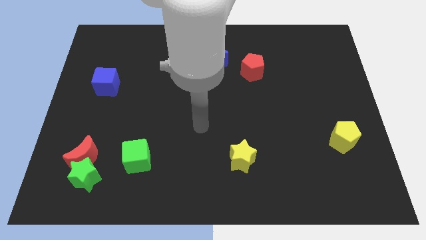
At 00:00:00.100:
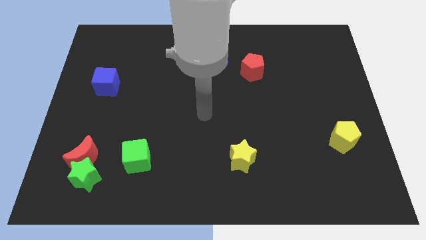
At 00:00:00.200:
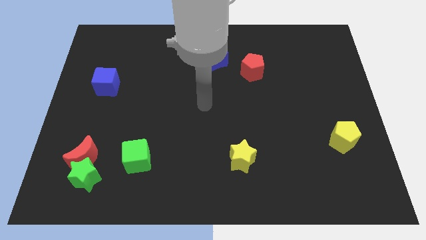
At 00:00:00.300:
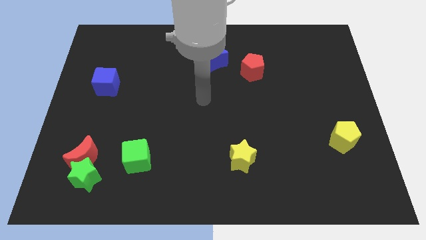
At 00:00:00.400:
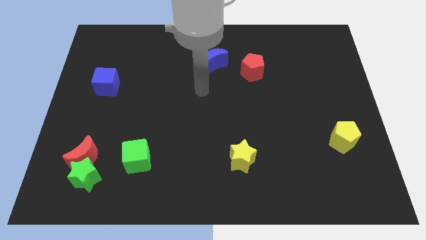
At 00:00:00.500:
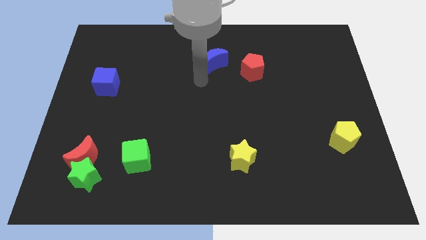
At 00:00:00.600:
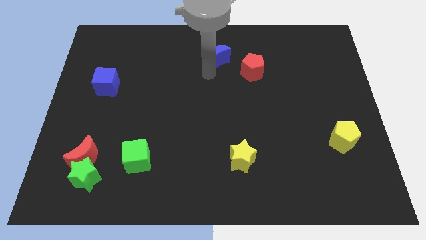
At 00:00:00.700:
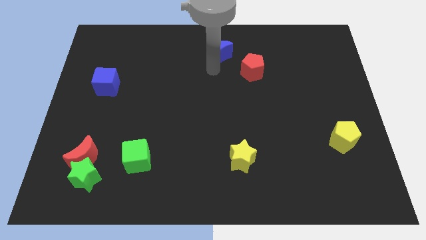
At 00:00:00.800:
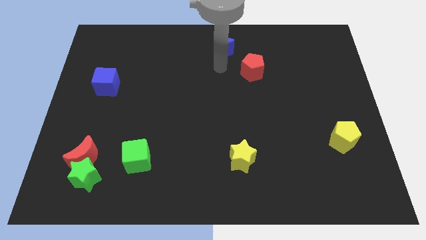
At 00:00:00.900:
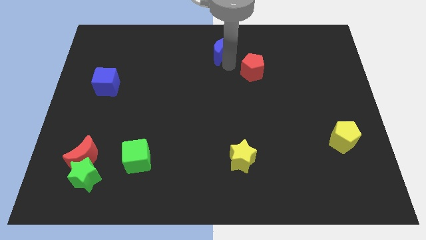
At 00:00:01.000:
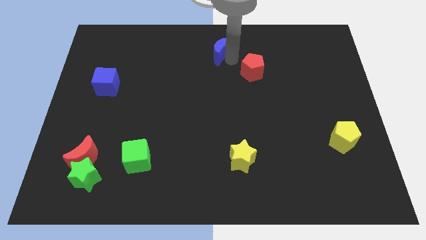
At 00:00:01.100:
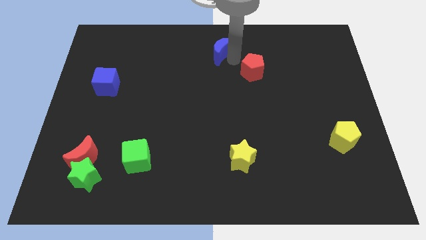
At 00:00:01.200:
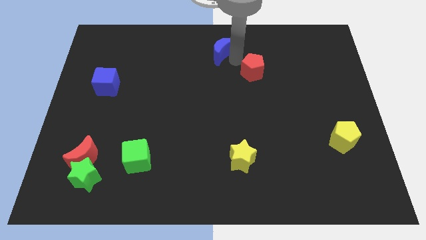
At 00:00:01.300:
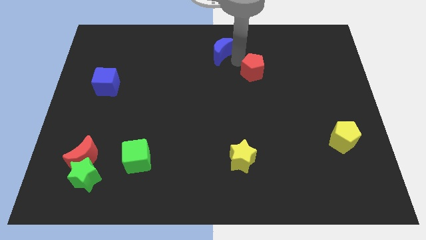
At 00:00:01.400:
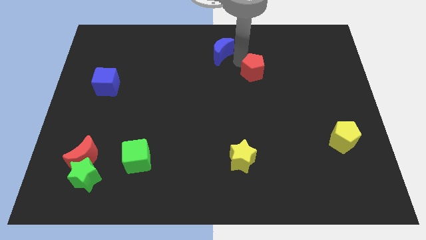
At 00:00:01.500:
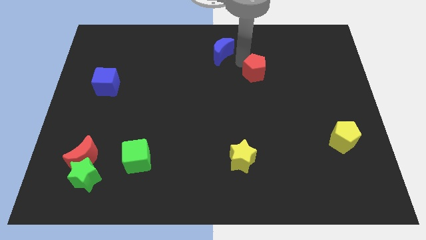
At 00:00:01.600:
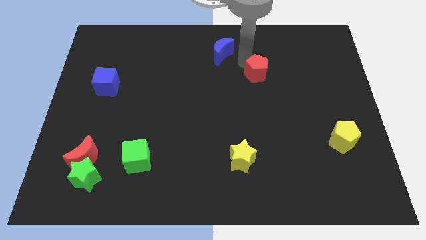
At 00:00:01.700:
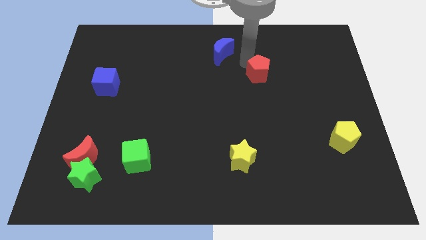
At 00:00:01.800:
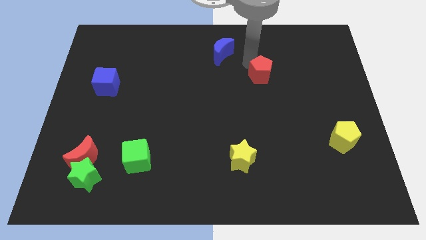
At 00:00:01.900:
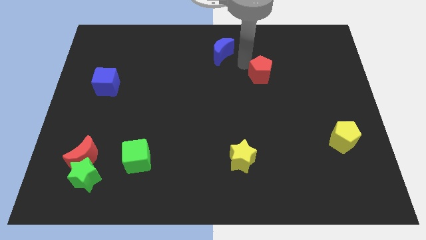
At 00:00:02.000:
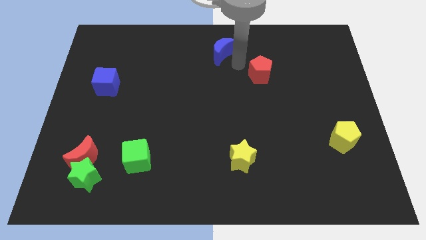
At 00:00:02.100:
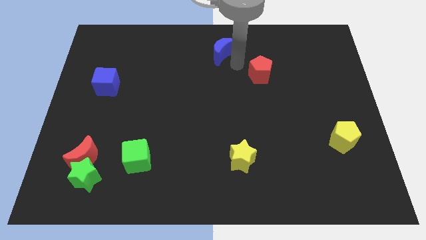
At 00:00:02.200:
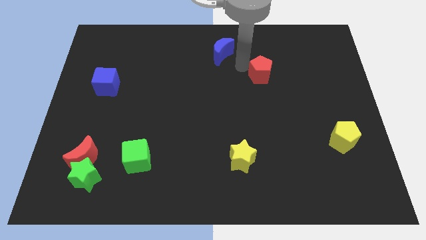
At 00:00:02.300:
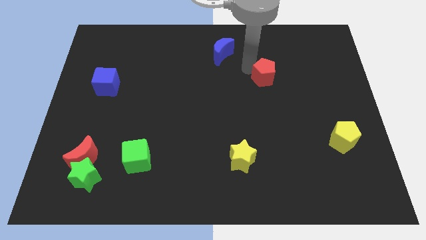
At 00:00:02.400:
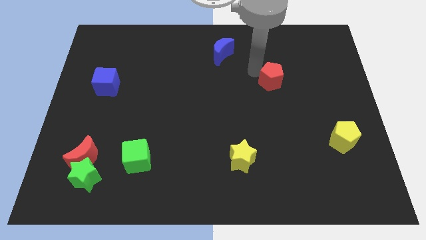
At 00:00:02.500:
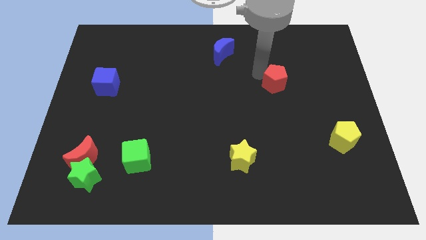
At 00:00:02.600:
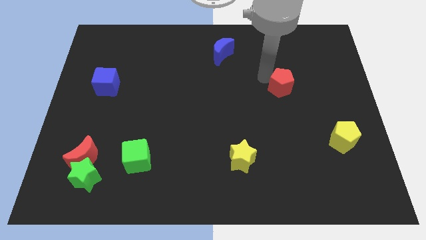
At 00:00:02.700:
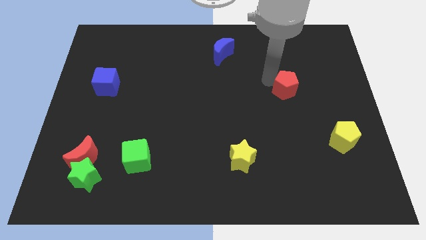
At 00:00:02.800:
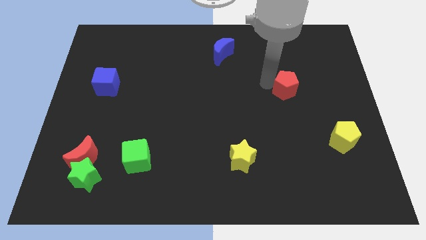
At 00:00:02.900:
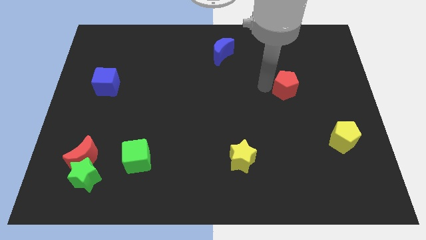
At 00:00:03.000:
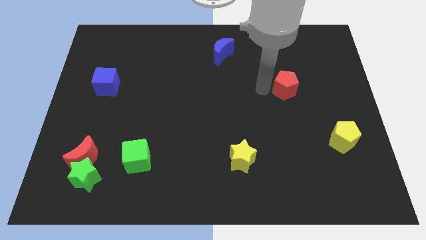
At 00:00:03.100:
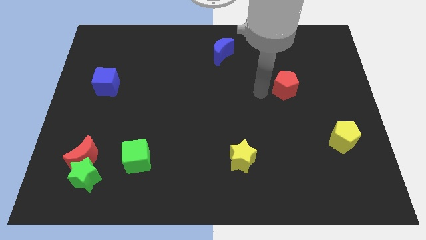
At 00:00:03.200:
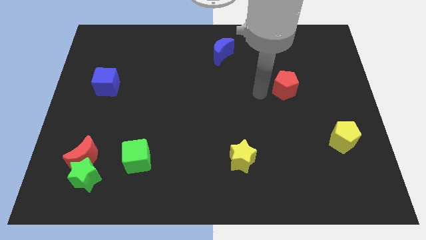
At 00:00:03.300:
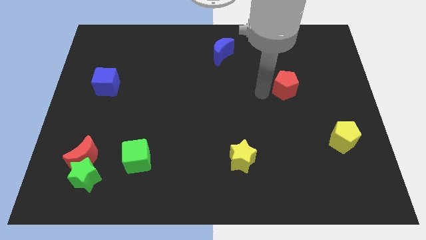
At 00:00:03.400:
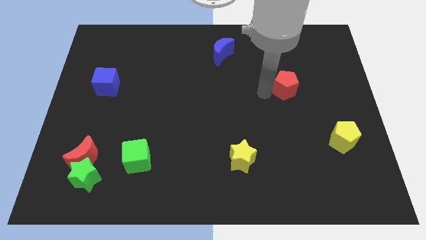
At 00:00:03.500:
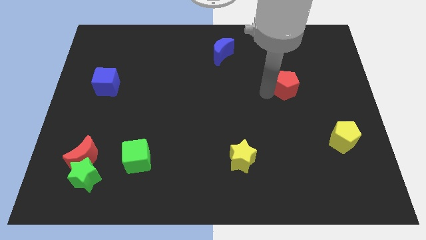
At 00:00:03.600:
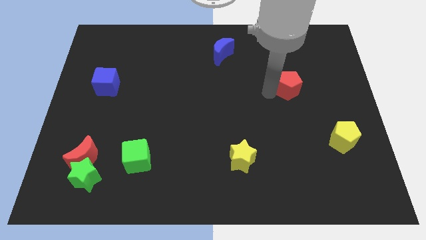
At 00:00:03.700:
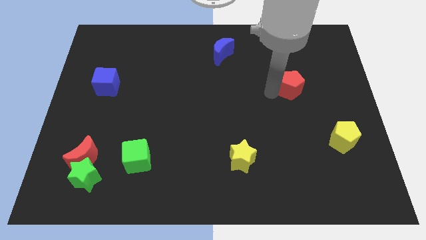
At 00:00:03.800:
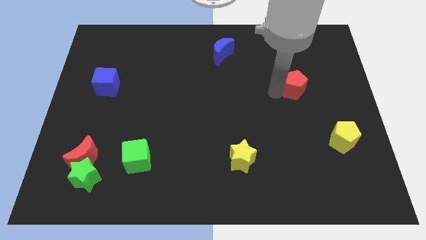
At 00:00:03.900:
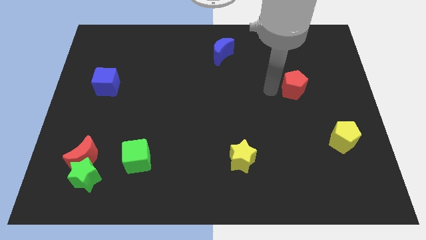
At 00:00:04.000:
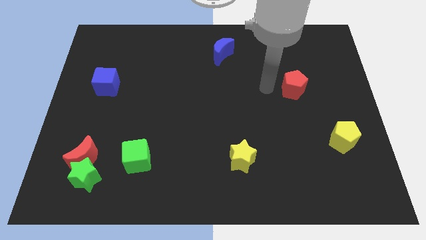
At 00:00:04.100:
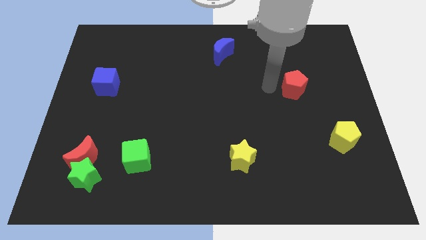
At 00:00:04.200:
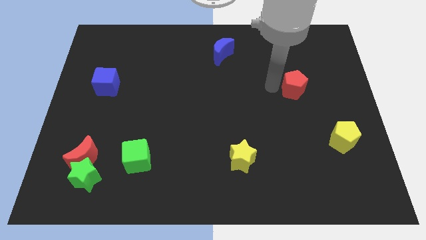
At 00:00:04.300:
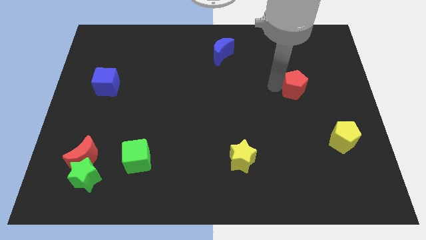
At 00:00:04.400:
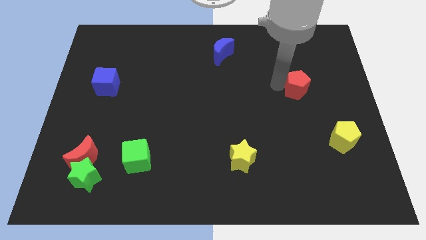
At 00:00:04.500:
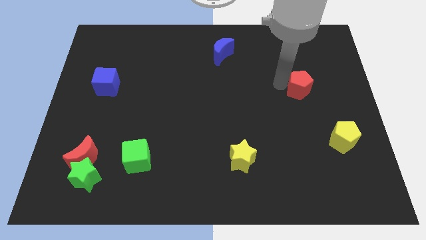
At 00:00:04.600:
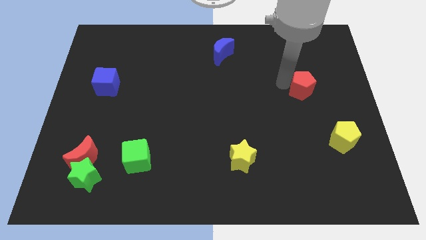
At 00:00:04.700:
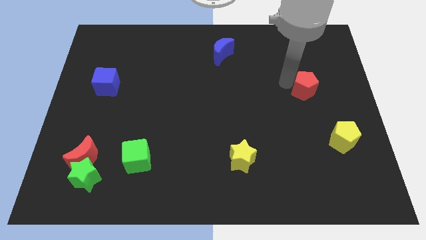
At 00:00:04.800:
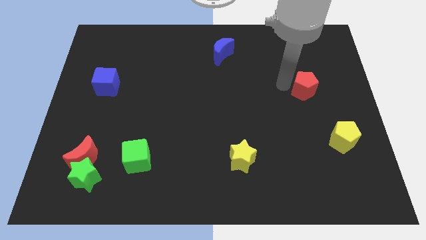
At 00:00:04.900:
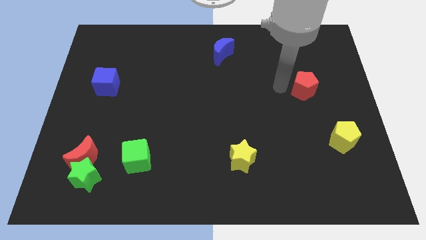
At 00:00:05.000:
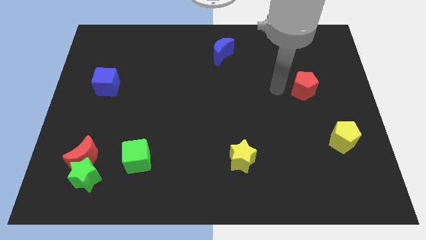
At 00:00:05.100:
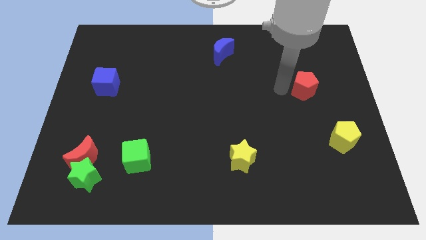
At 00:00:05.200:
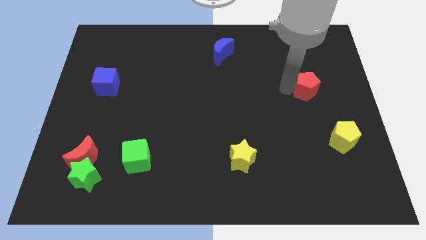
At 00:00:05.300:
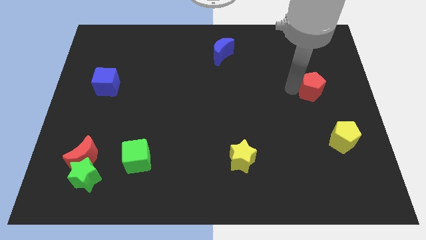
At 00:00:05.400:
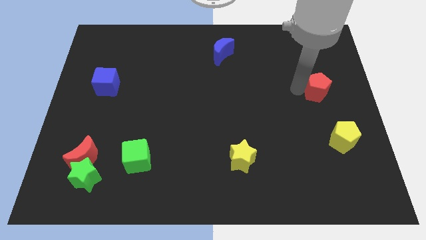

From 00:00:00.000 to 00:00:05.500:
push the red pentagon to the right side
